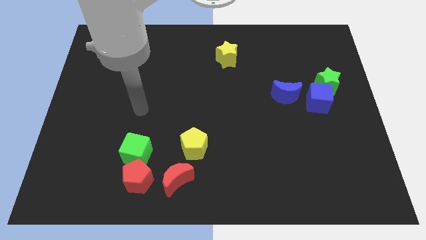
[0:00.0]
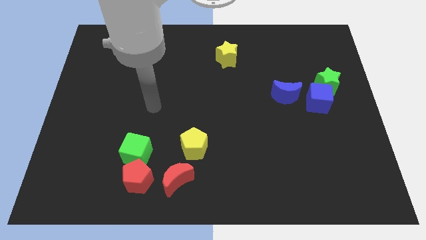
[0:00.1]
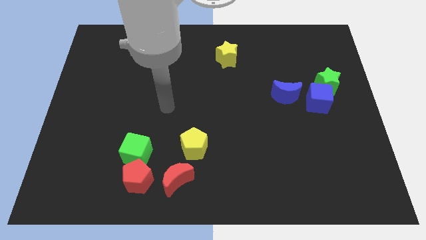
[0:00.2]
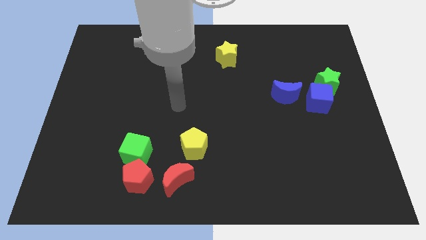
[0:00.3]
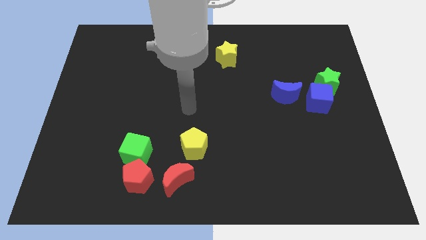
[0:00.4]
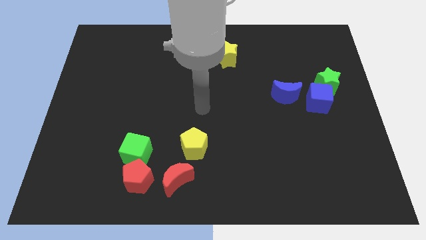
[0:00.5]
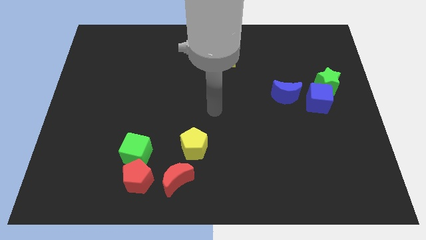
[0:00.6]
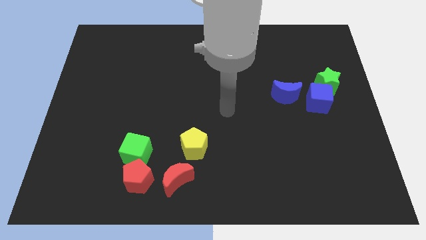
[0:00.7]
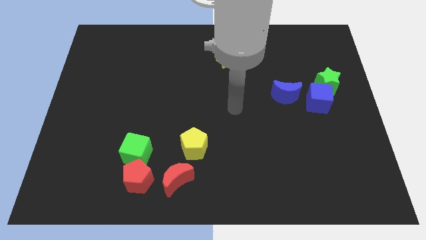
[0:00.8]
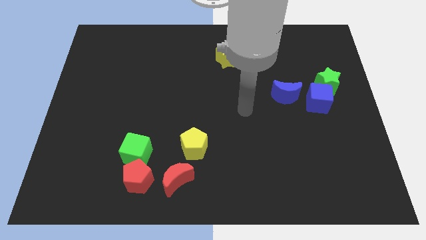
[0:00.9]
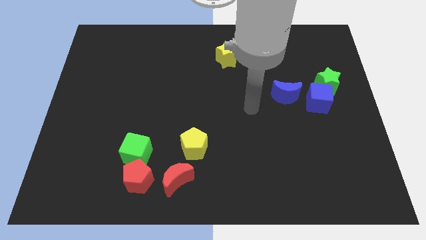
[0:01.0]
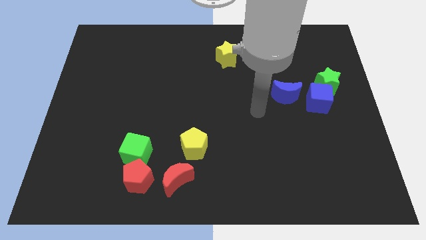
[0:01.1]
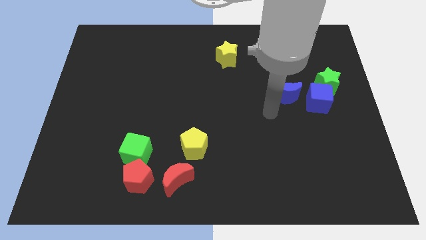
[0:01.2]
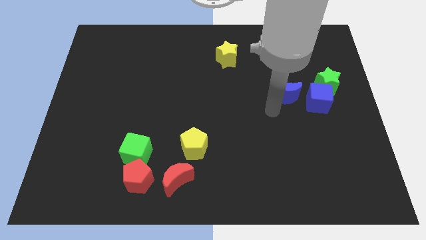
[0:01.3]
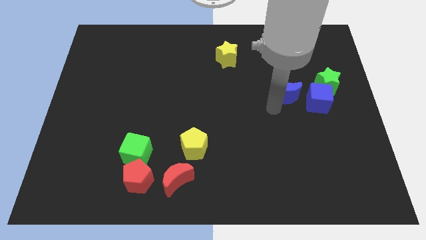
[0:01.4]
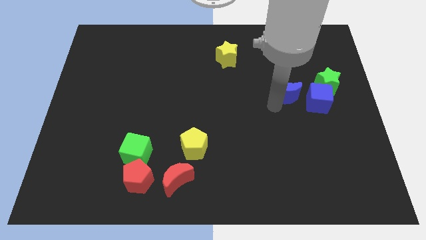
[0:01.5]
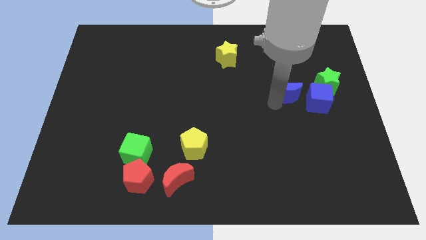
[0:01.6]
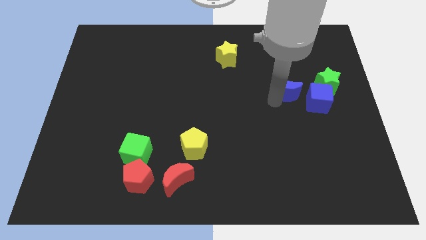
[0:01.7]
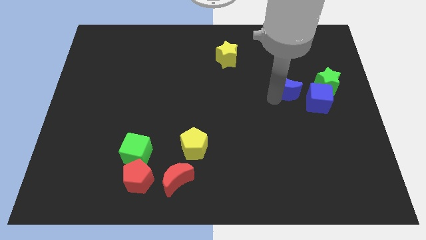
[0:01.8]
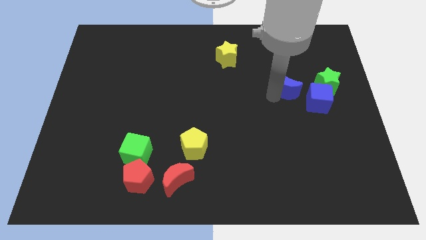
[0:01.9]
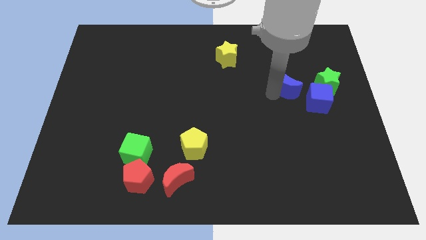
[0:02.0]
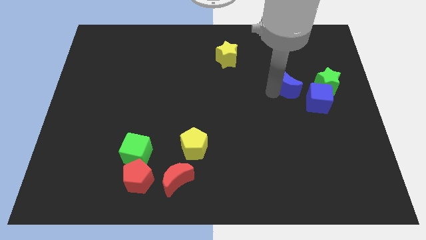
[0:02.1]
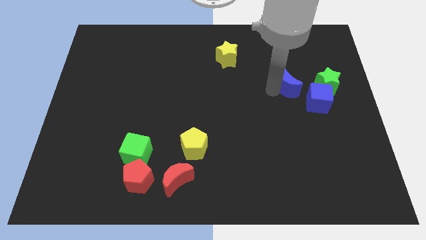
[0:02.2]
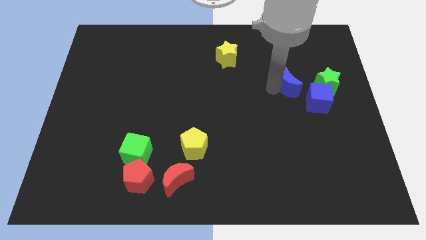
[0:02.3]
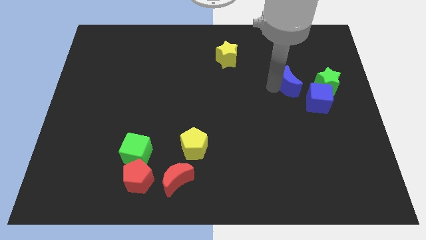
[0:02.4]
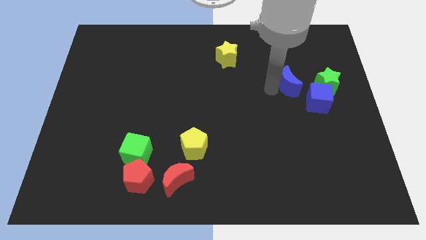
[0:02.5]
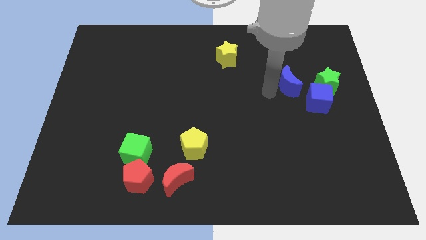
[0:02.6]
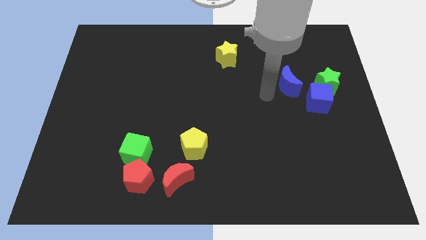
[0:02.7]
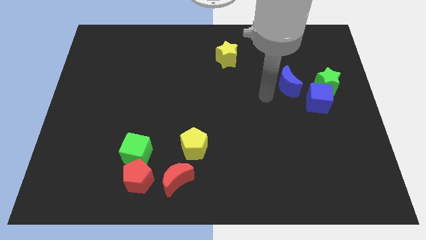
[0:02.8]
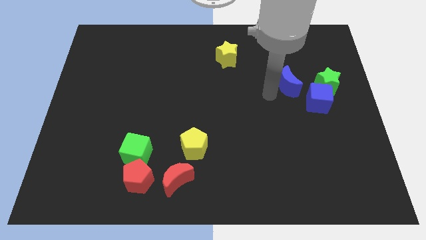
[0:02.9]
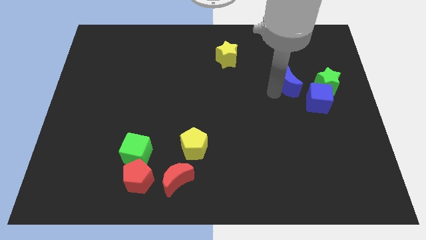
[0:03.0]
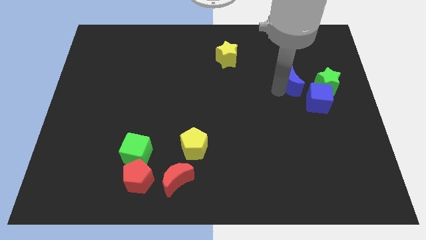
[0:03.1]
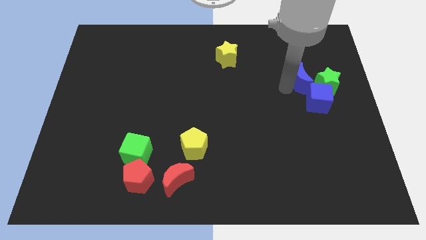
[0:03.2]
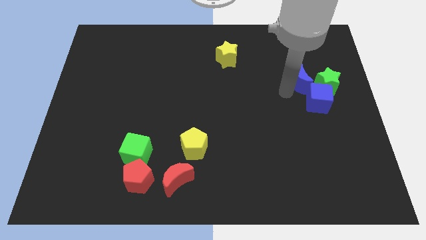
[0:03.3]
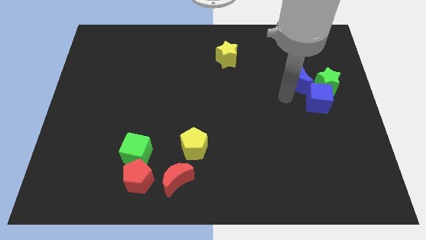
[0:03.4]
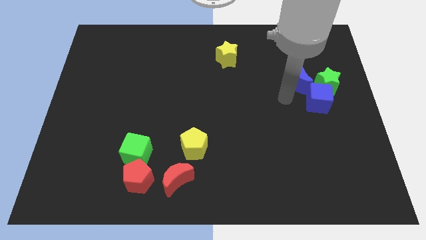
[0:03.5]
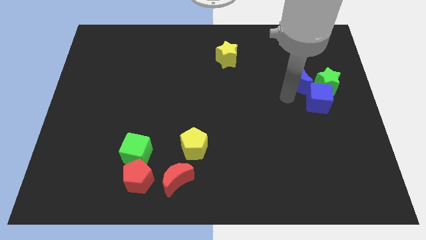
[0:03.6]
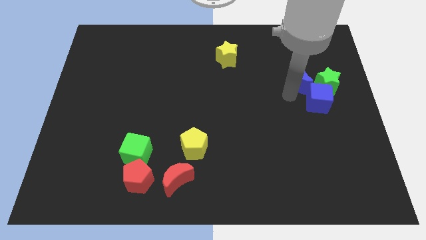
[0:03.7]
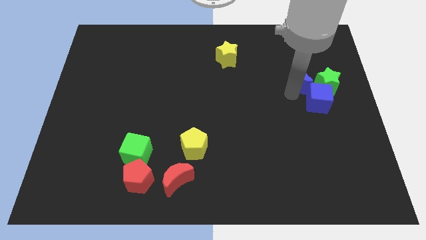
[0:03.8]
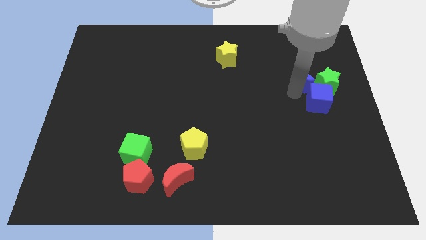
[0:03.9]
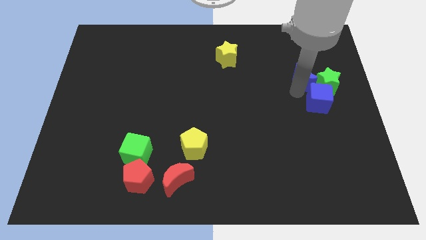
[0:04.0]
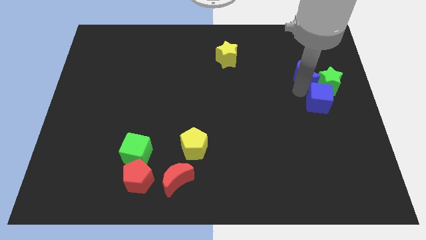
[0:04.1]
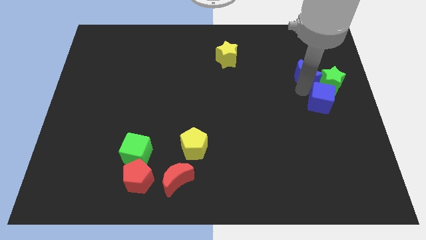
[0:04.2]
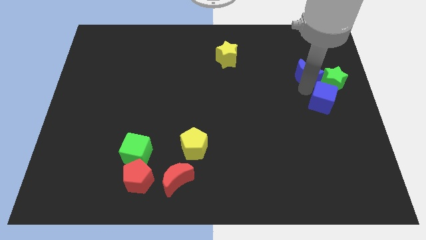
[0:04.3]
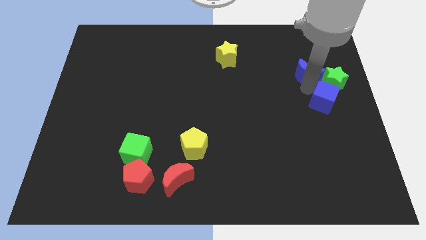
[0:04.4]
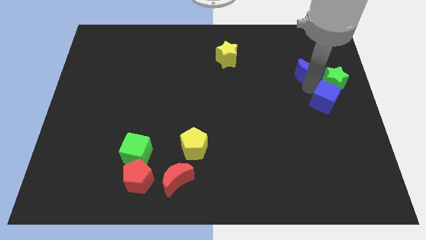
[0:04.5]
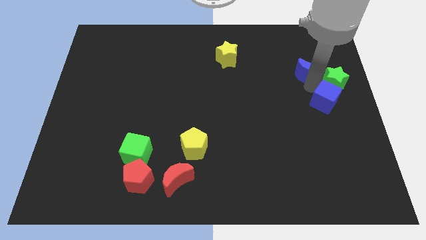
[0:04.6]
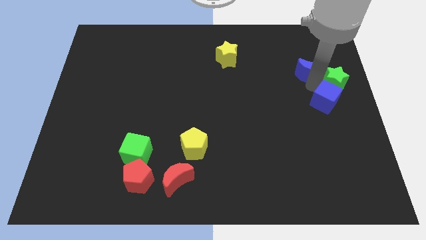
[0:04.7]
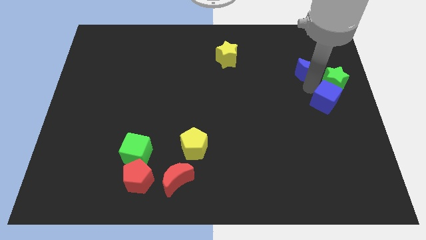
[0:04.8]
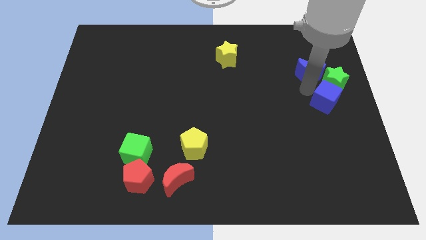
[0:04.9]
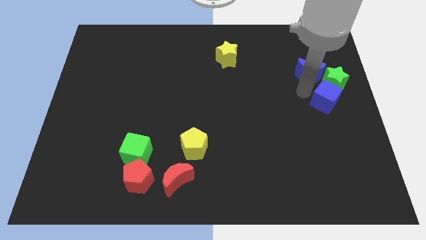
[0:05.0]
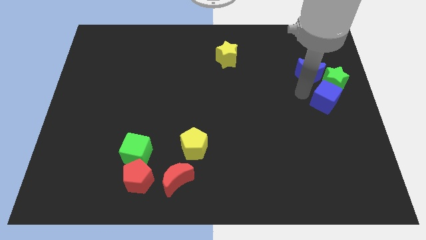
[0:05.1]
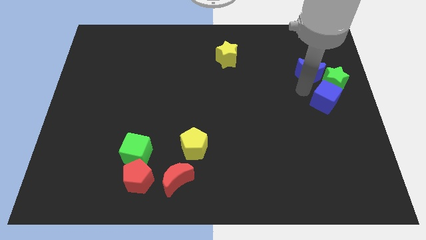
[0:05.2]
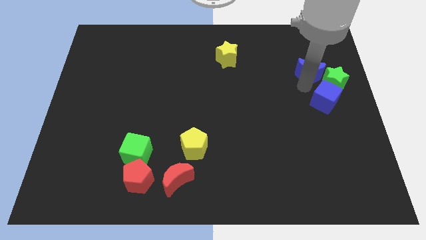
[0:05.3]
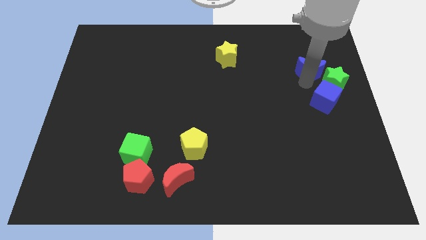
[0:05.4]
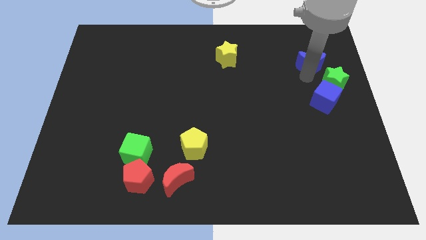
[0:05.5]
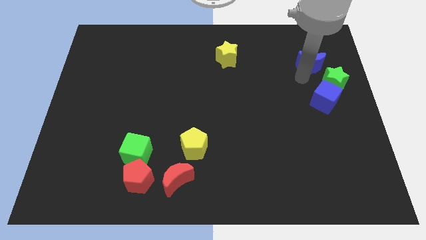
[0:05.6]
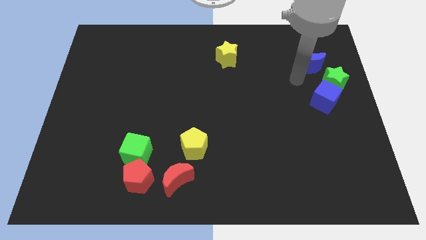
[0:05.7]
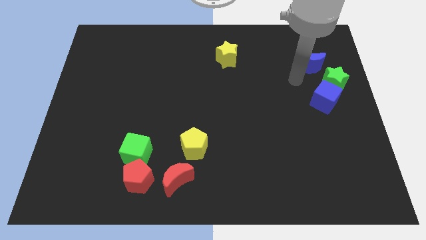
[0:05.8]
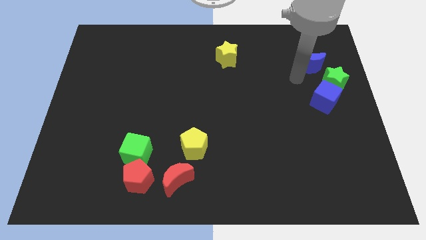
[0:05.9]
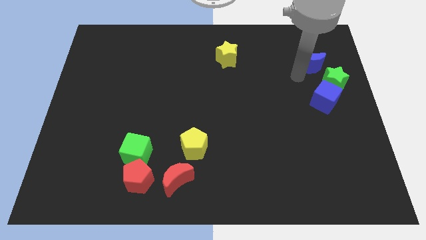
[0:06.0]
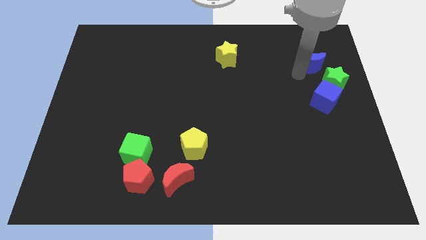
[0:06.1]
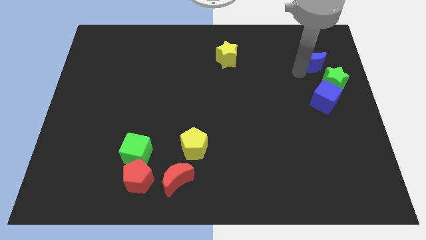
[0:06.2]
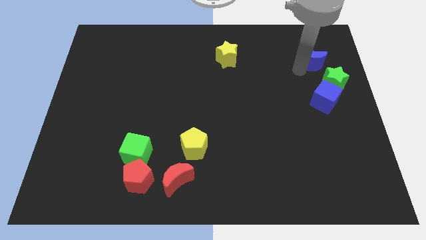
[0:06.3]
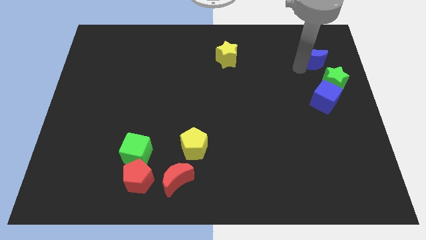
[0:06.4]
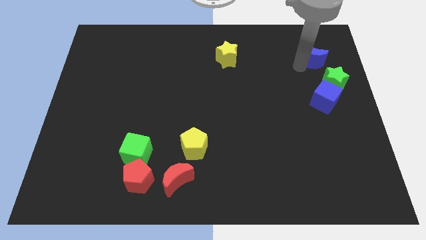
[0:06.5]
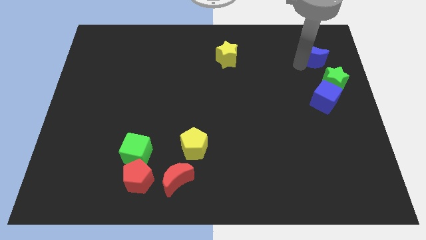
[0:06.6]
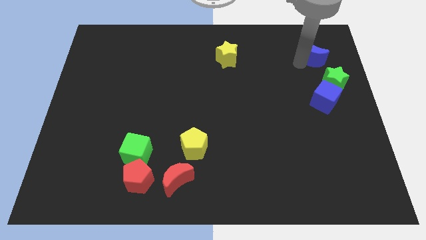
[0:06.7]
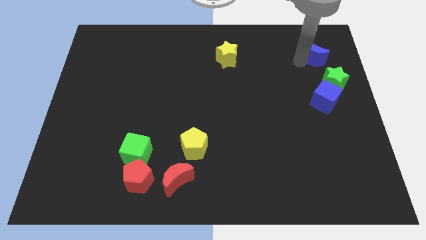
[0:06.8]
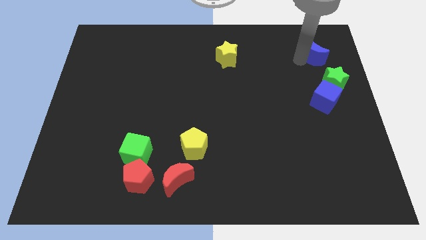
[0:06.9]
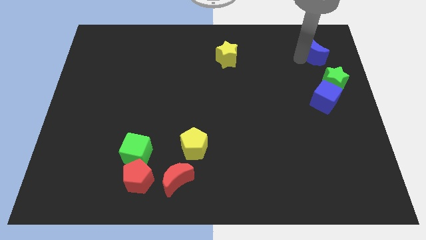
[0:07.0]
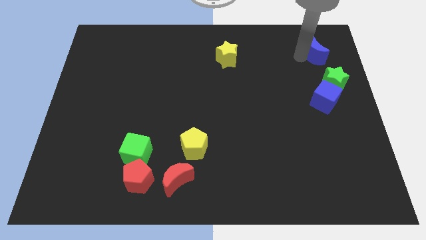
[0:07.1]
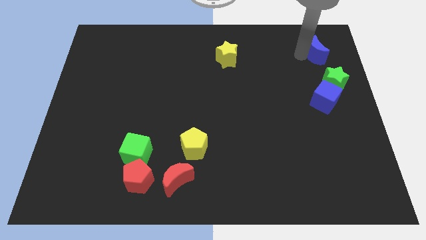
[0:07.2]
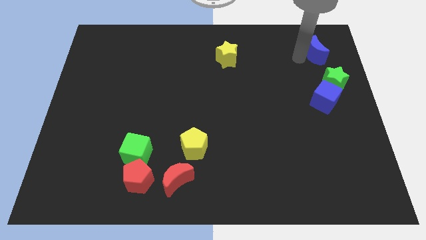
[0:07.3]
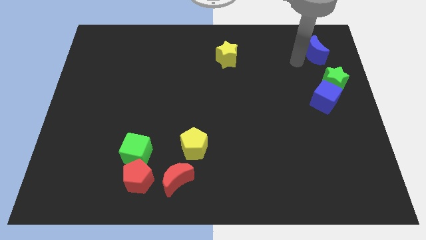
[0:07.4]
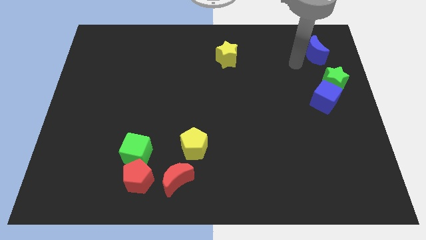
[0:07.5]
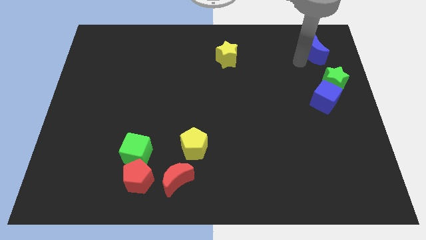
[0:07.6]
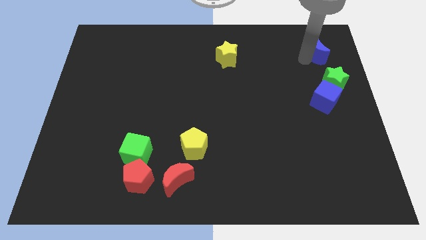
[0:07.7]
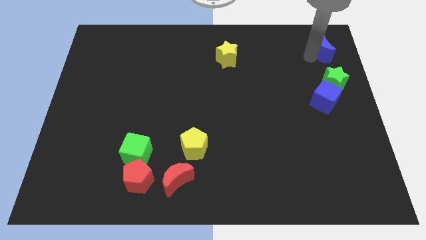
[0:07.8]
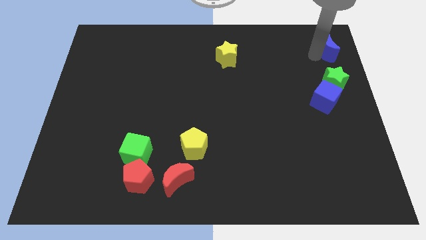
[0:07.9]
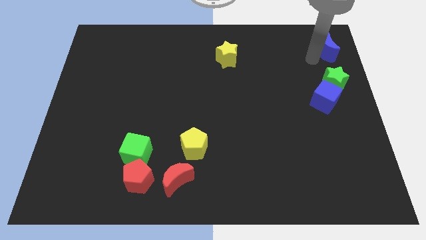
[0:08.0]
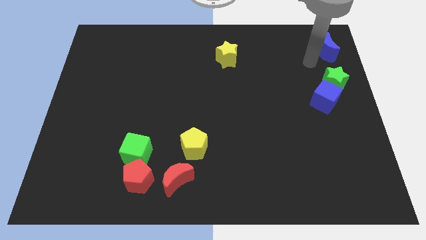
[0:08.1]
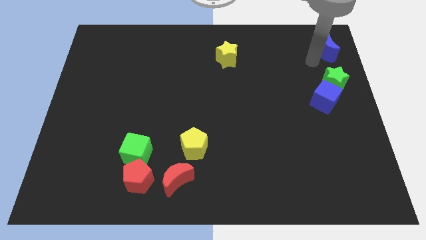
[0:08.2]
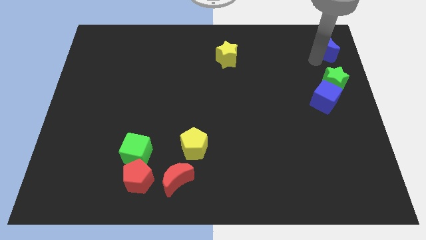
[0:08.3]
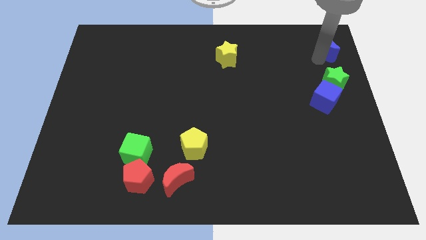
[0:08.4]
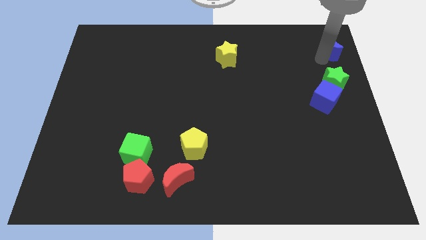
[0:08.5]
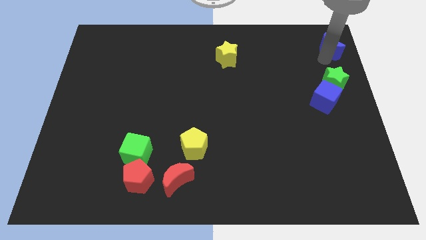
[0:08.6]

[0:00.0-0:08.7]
move the blue moon to the top right of the board
